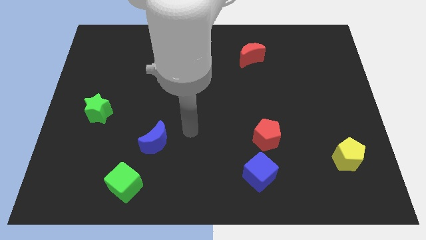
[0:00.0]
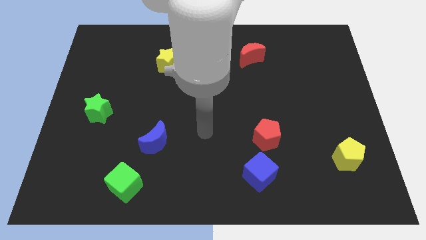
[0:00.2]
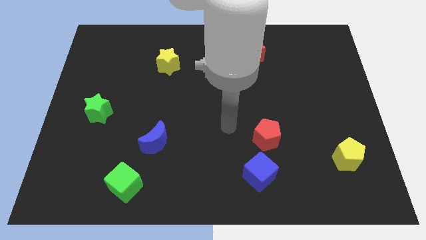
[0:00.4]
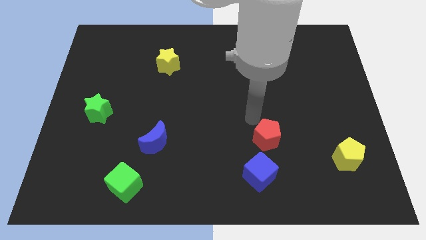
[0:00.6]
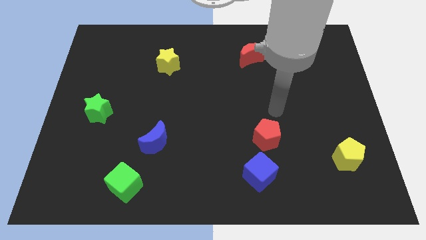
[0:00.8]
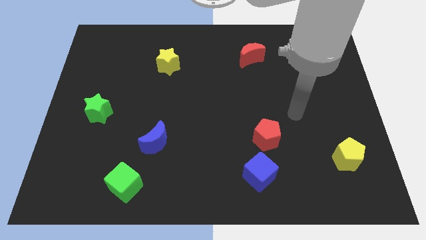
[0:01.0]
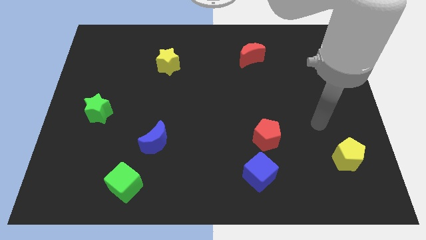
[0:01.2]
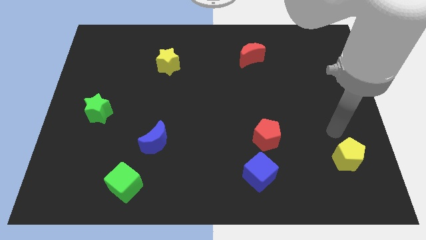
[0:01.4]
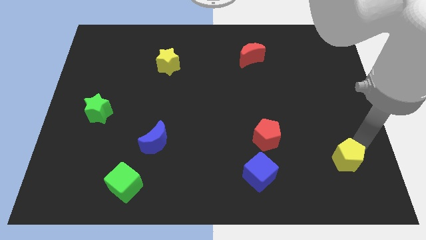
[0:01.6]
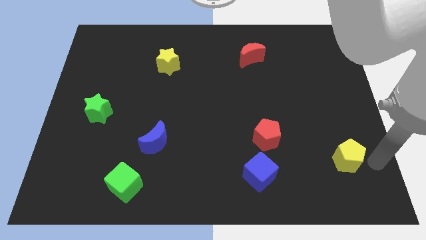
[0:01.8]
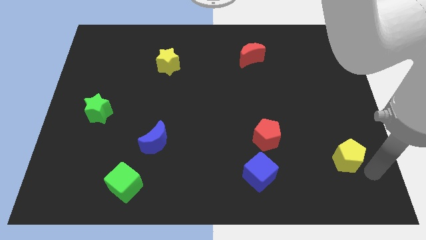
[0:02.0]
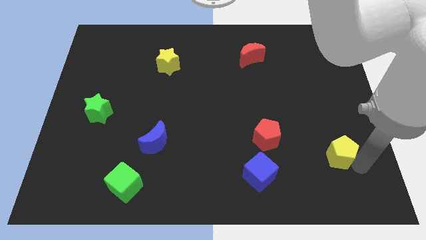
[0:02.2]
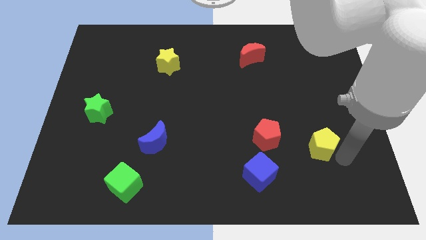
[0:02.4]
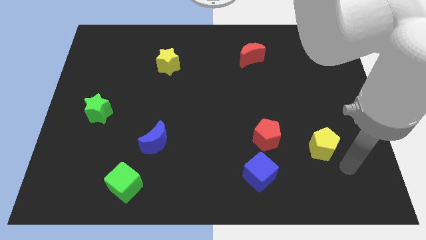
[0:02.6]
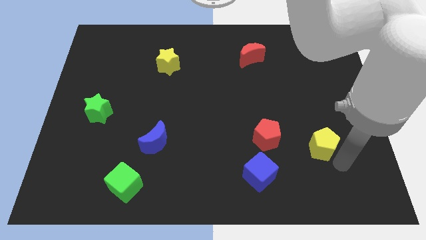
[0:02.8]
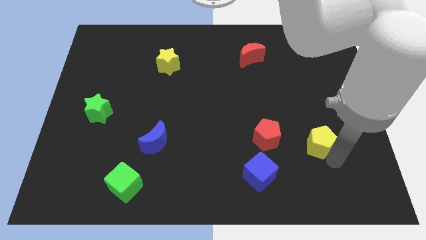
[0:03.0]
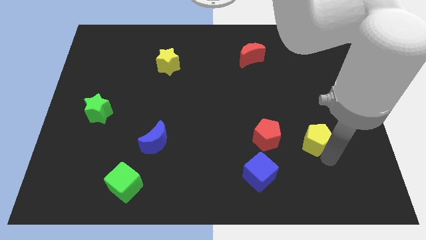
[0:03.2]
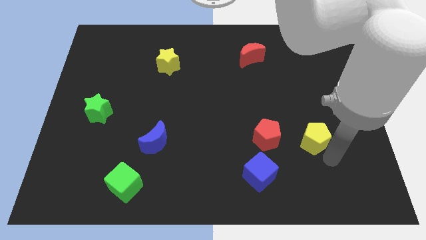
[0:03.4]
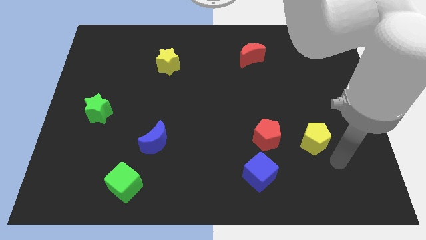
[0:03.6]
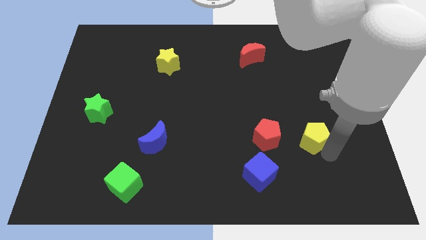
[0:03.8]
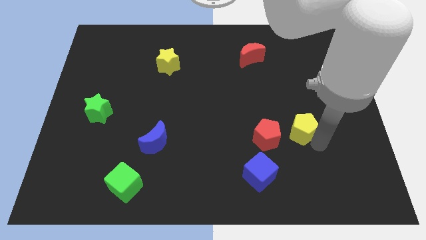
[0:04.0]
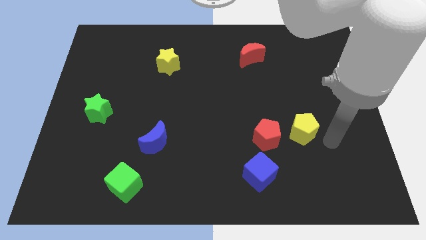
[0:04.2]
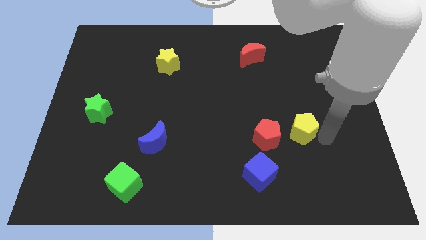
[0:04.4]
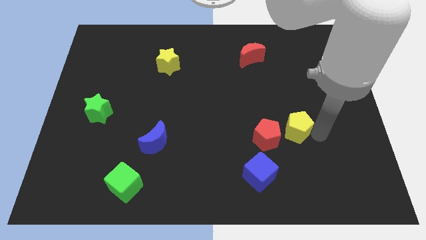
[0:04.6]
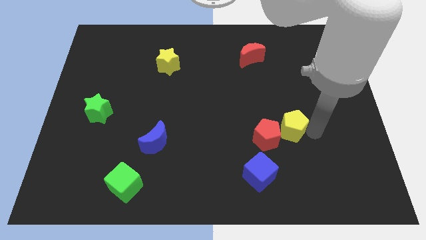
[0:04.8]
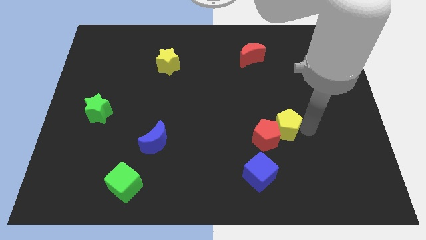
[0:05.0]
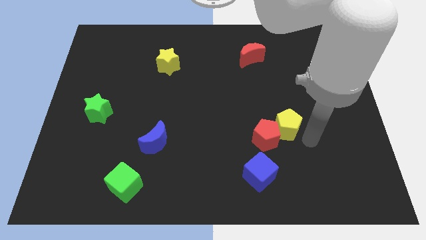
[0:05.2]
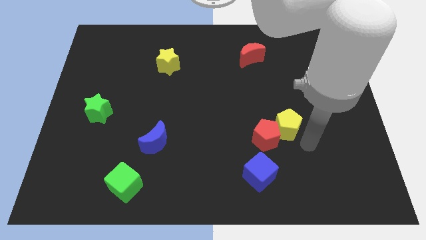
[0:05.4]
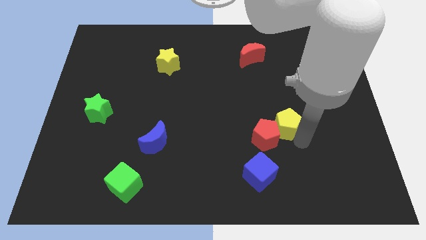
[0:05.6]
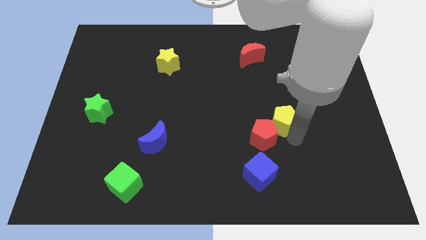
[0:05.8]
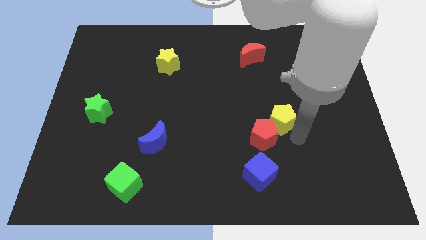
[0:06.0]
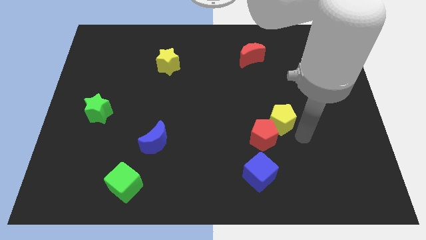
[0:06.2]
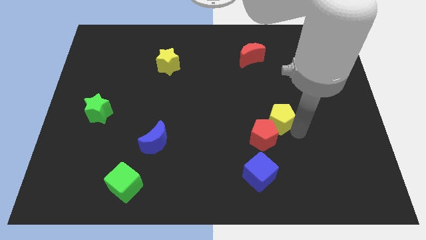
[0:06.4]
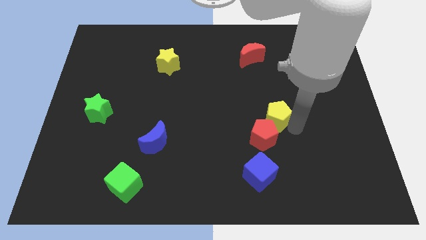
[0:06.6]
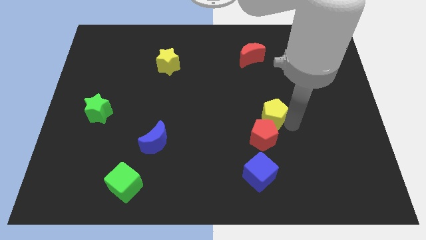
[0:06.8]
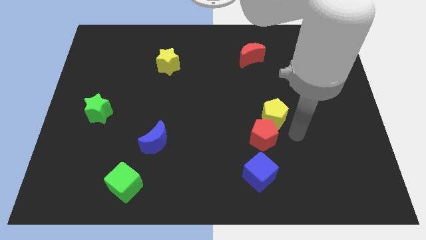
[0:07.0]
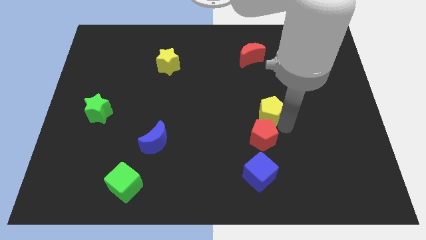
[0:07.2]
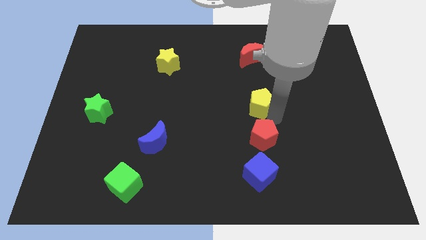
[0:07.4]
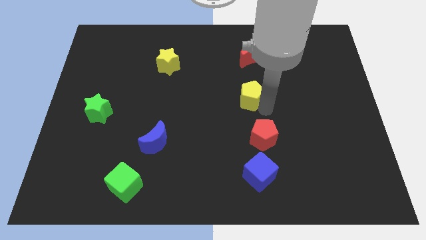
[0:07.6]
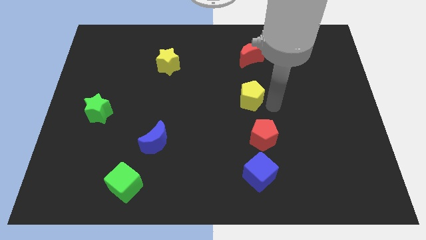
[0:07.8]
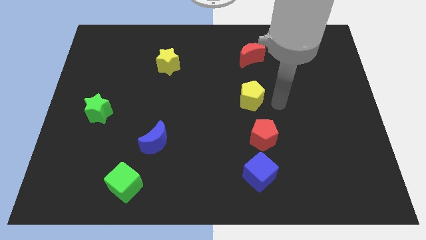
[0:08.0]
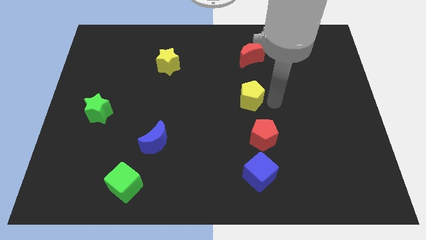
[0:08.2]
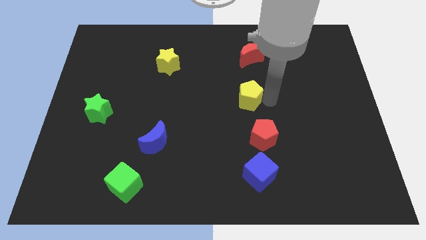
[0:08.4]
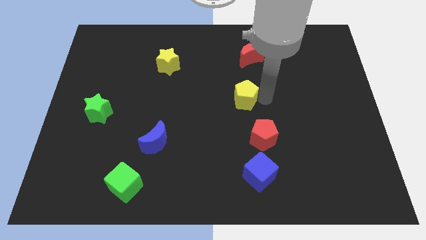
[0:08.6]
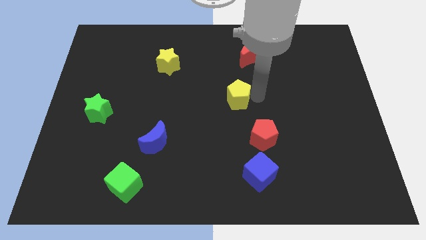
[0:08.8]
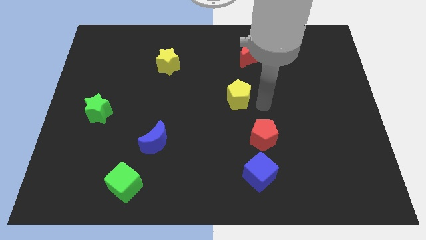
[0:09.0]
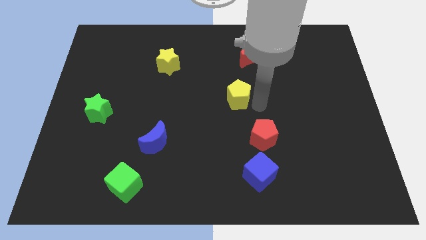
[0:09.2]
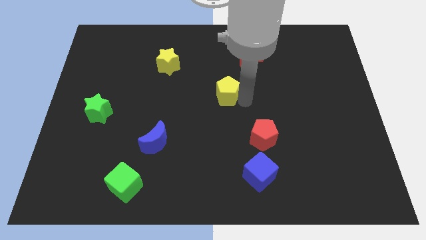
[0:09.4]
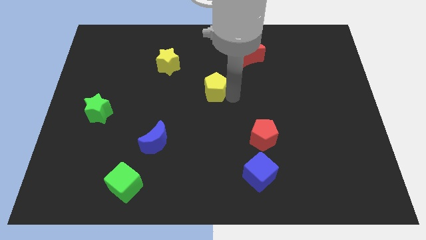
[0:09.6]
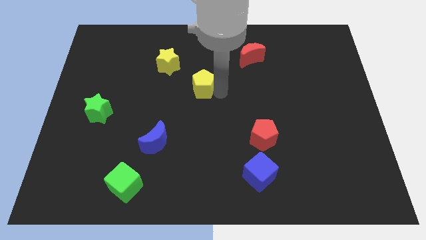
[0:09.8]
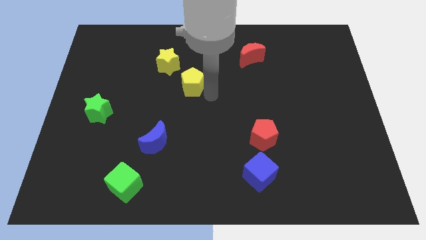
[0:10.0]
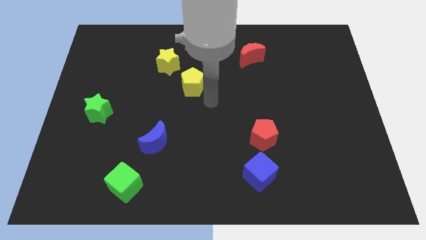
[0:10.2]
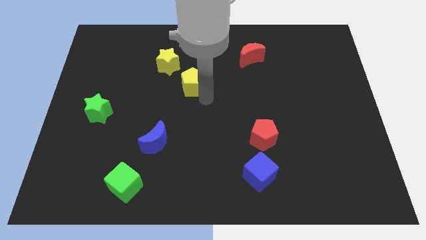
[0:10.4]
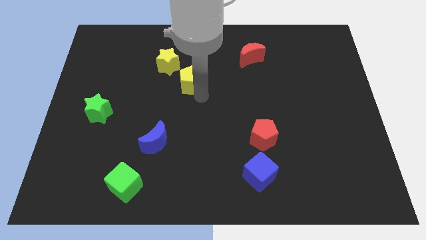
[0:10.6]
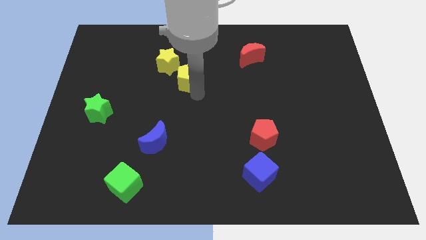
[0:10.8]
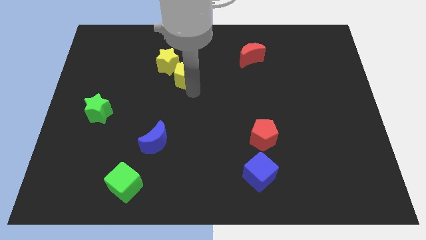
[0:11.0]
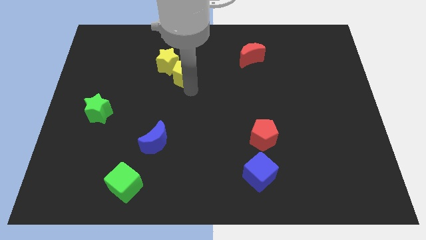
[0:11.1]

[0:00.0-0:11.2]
push the yellow pentagon to the yellow star

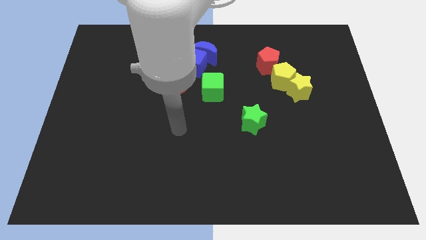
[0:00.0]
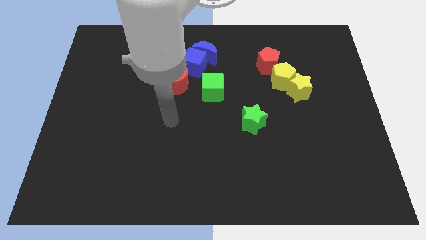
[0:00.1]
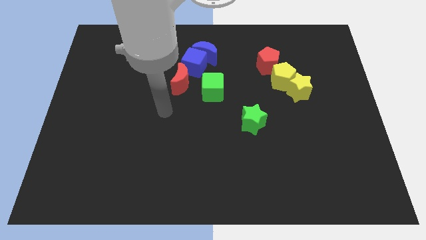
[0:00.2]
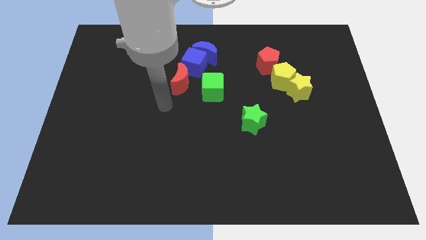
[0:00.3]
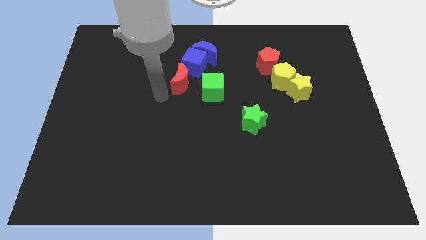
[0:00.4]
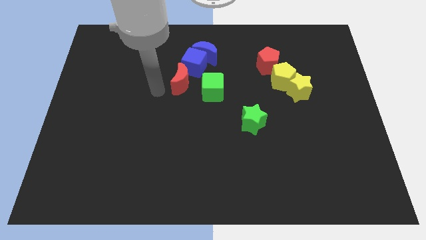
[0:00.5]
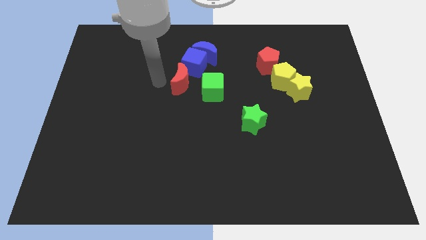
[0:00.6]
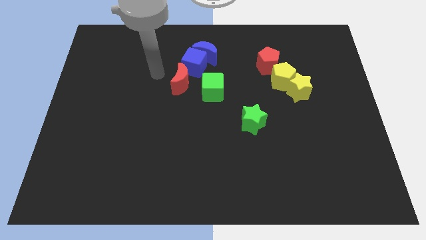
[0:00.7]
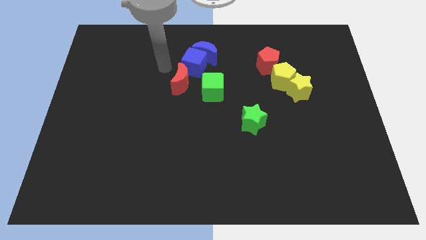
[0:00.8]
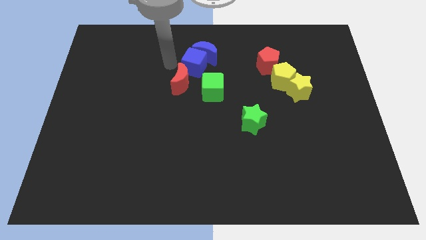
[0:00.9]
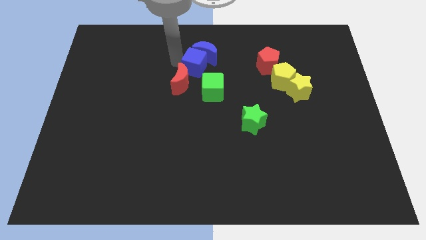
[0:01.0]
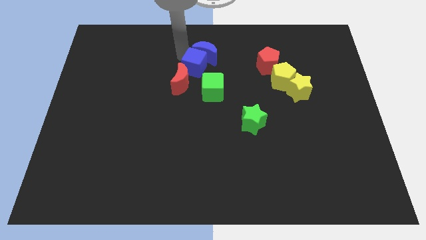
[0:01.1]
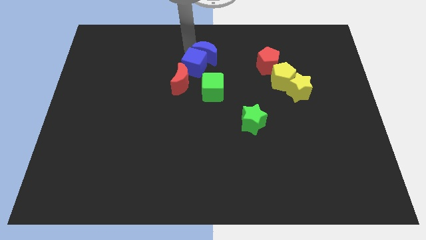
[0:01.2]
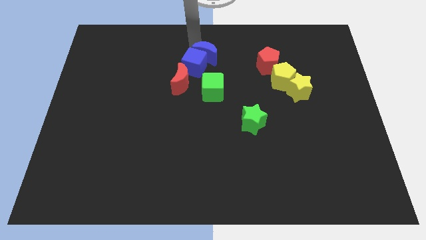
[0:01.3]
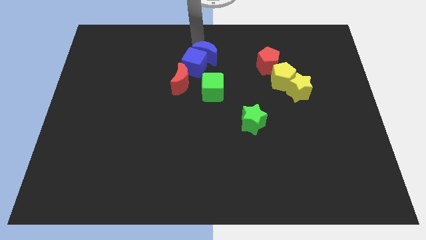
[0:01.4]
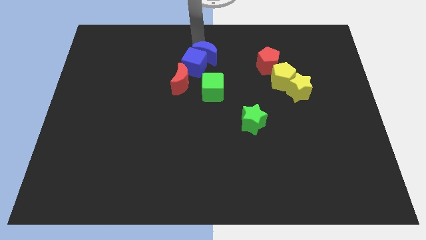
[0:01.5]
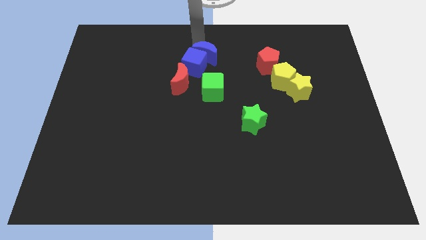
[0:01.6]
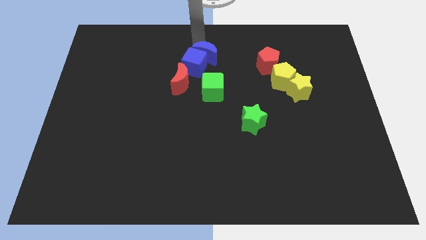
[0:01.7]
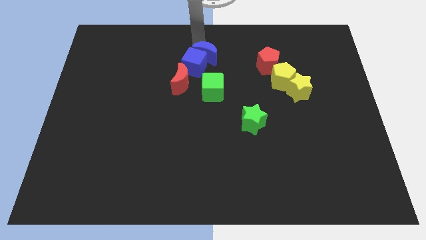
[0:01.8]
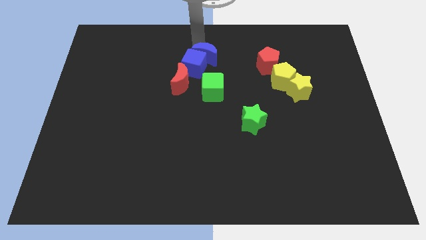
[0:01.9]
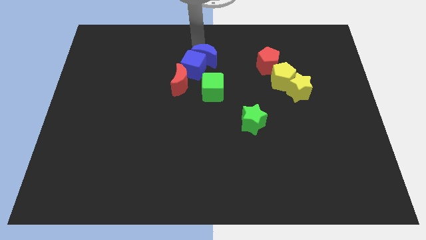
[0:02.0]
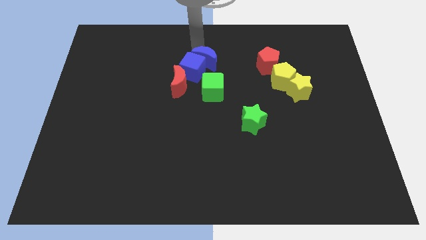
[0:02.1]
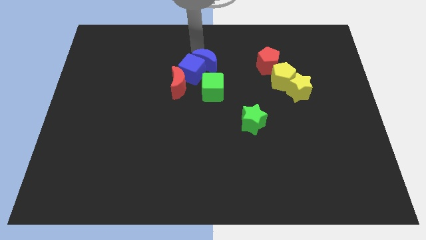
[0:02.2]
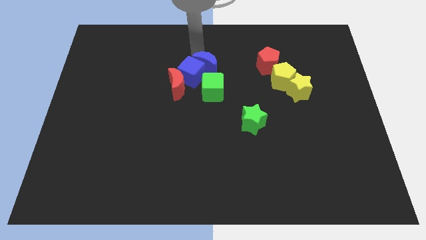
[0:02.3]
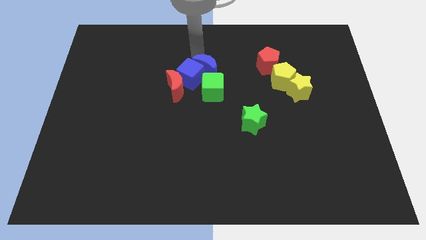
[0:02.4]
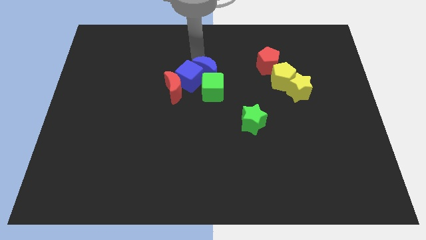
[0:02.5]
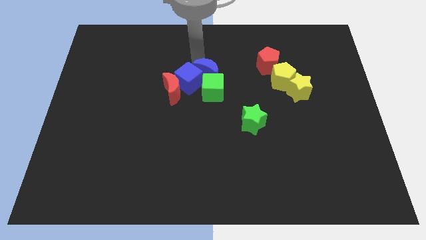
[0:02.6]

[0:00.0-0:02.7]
slide the blue moon next to the green cube
